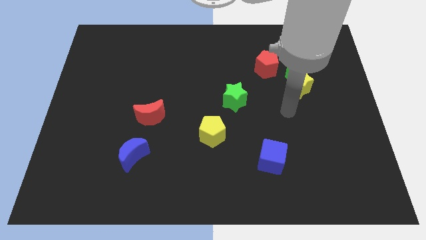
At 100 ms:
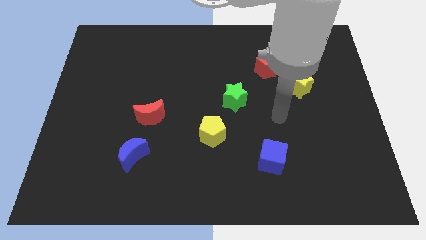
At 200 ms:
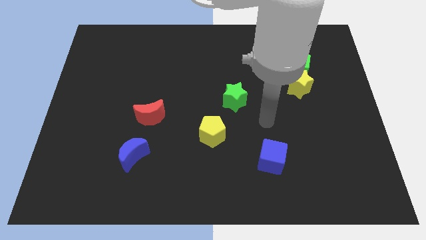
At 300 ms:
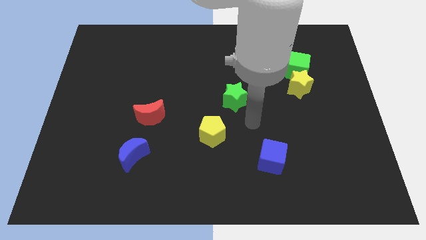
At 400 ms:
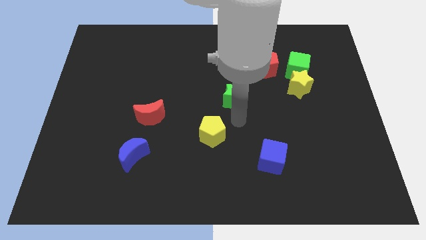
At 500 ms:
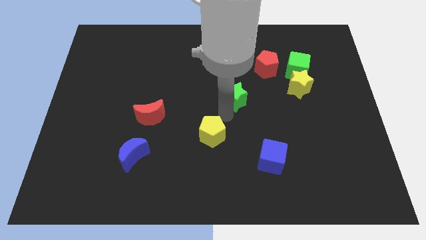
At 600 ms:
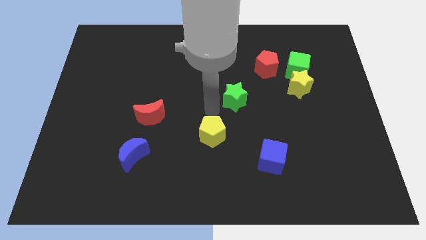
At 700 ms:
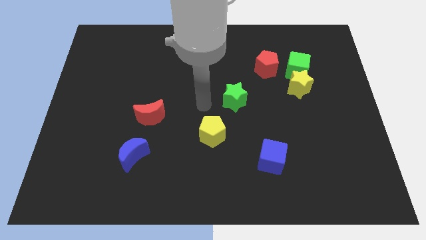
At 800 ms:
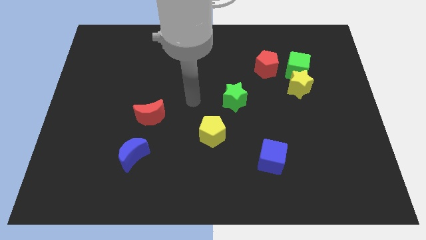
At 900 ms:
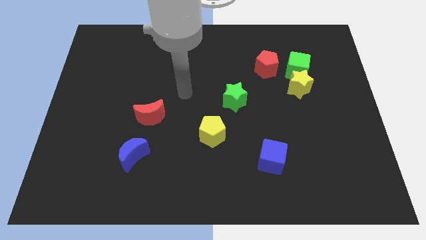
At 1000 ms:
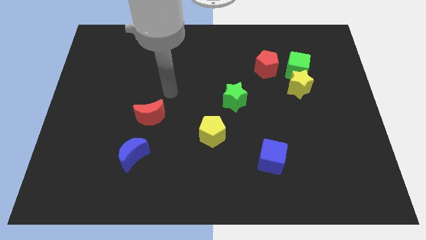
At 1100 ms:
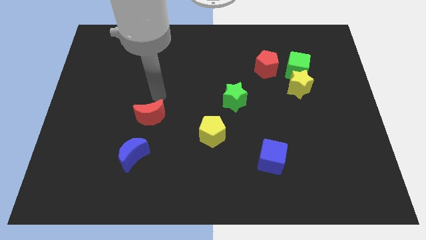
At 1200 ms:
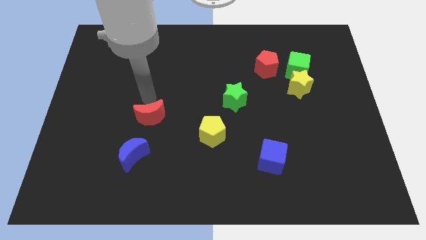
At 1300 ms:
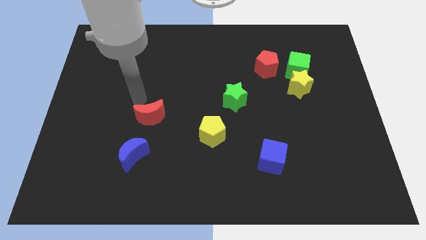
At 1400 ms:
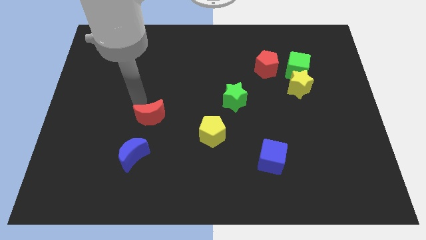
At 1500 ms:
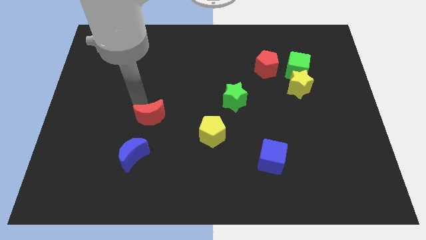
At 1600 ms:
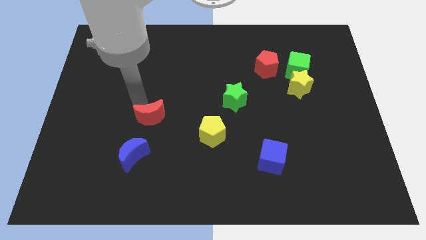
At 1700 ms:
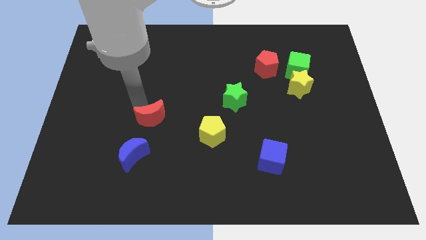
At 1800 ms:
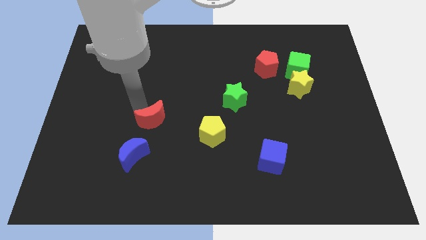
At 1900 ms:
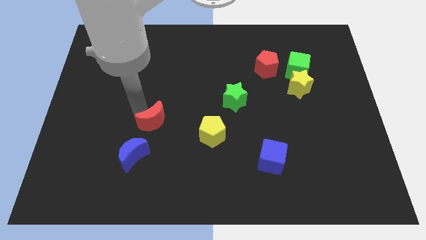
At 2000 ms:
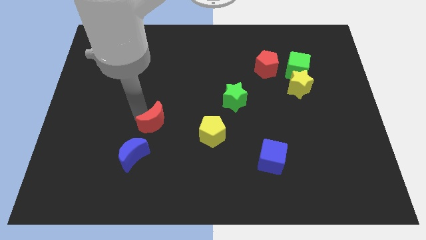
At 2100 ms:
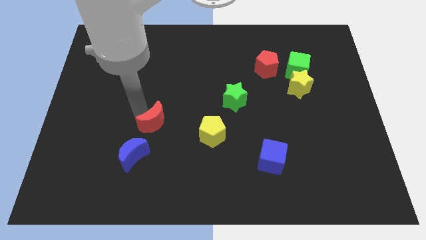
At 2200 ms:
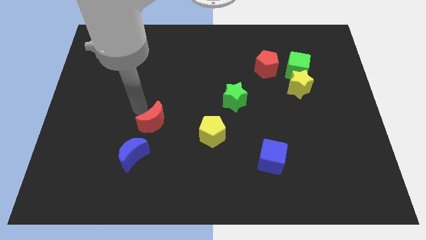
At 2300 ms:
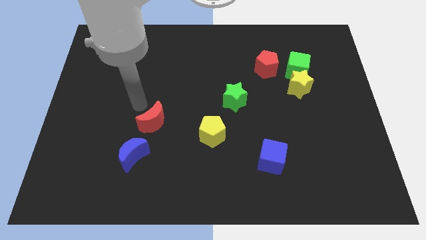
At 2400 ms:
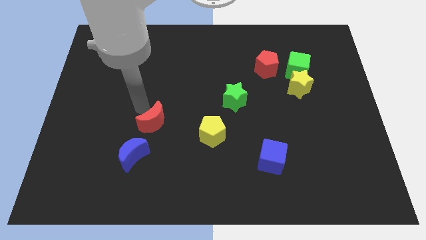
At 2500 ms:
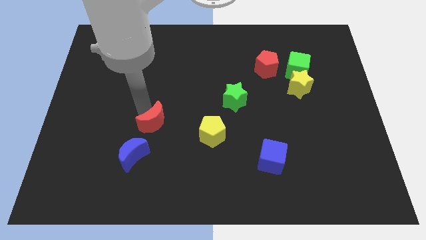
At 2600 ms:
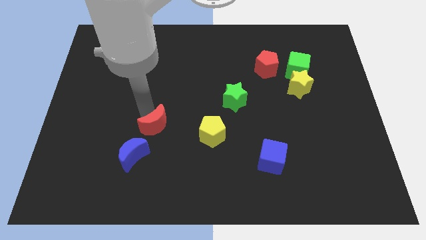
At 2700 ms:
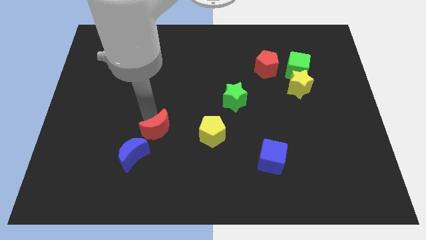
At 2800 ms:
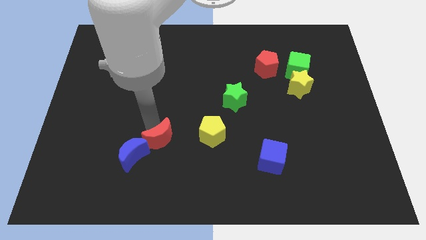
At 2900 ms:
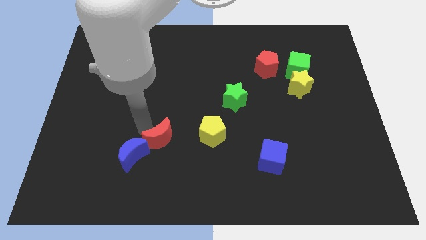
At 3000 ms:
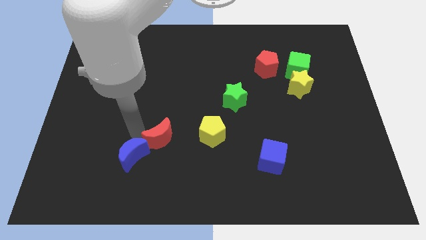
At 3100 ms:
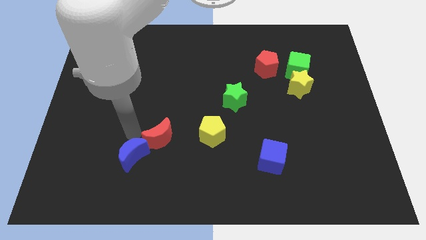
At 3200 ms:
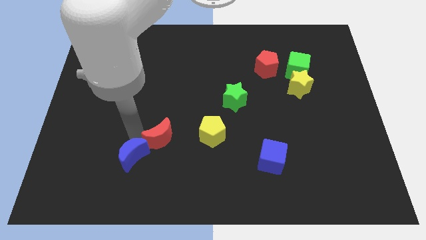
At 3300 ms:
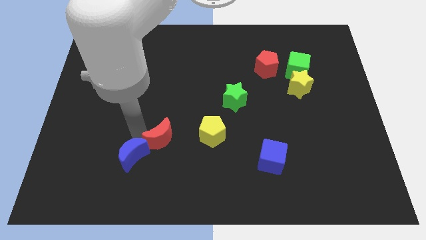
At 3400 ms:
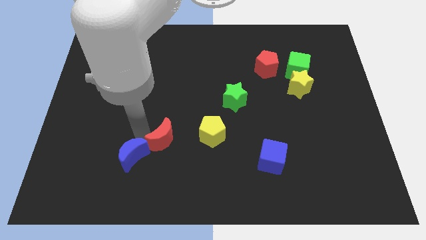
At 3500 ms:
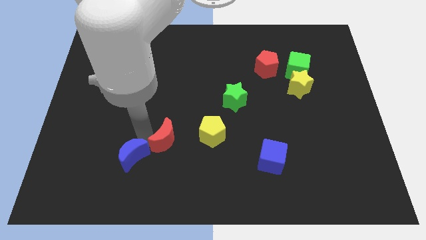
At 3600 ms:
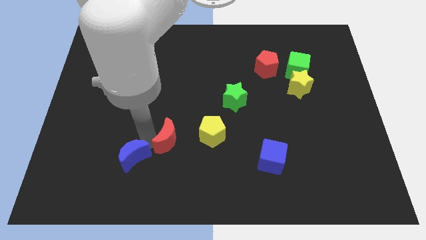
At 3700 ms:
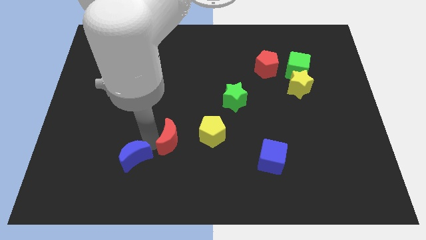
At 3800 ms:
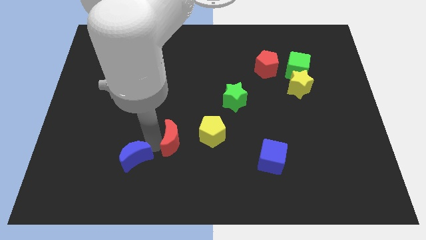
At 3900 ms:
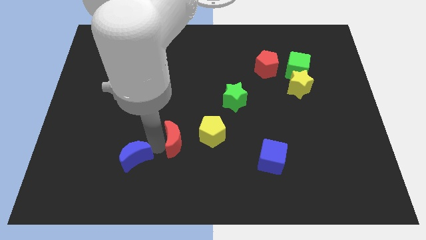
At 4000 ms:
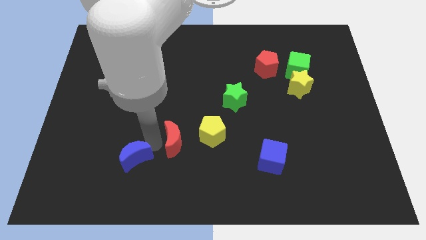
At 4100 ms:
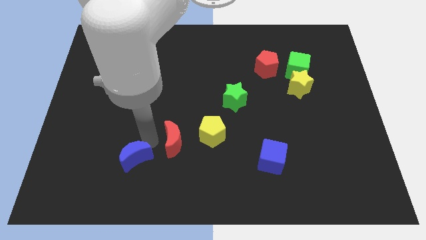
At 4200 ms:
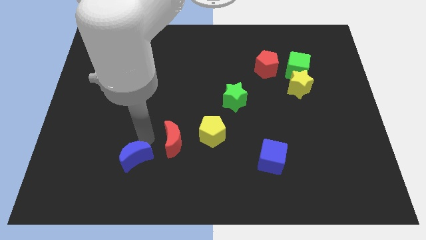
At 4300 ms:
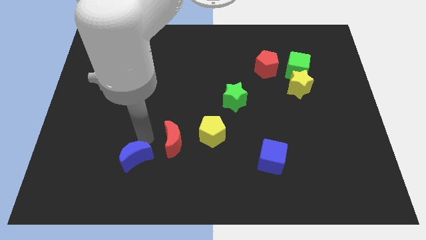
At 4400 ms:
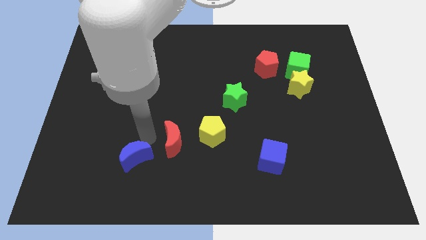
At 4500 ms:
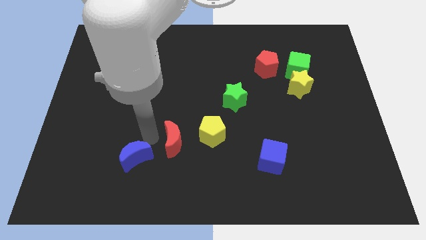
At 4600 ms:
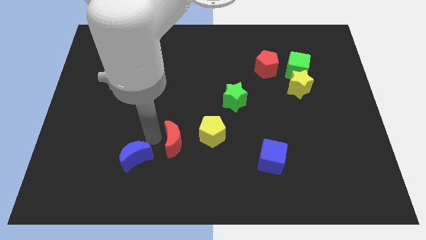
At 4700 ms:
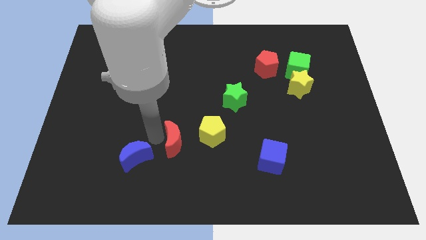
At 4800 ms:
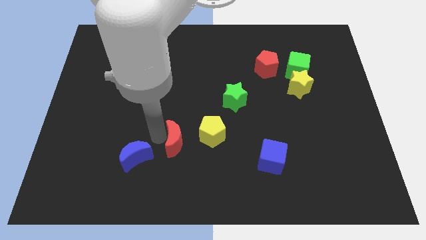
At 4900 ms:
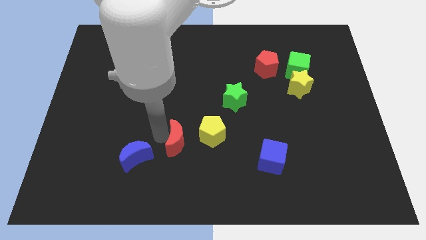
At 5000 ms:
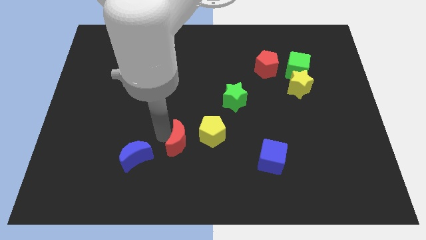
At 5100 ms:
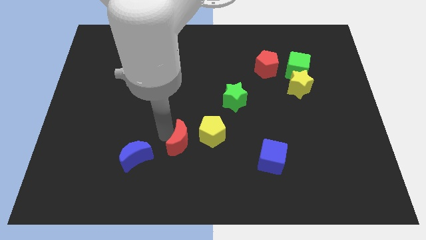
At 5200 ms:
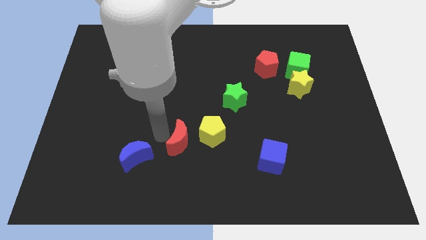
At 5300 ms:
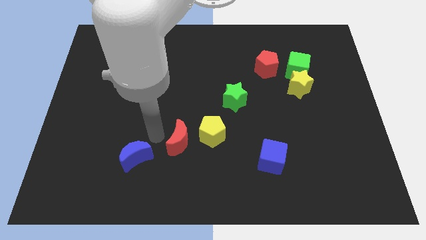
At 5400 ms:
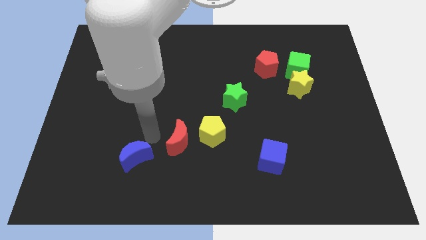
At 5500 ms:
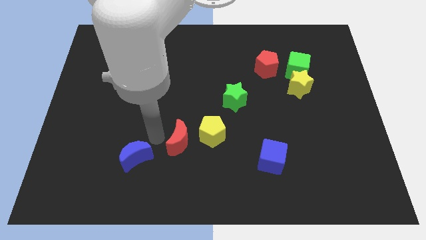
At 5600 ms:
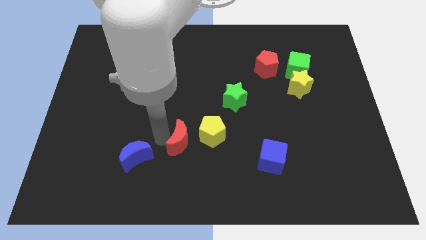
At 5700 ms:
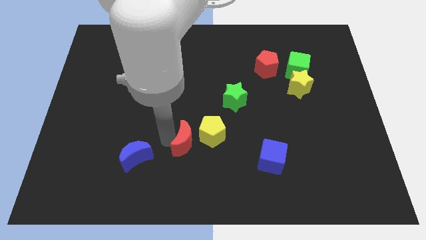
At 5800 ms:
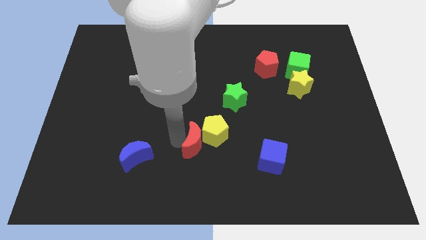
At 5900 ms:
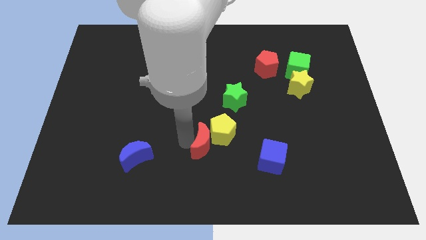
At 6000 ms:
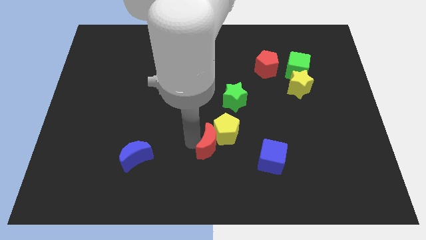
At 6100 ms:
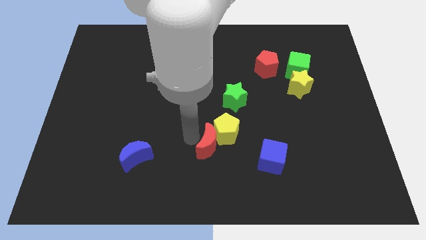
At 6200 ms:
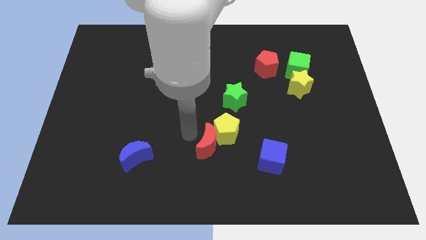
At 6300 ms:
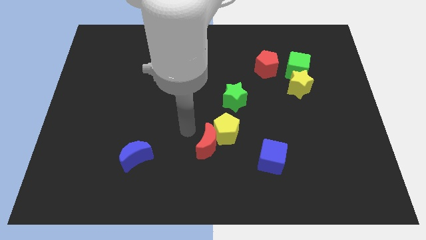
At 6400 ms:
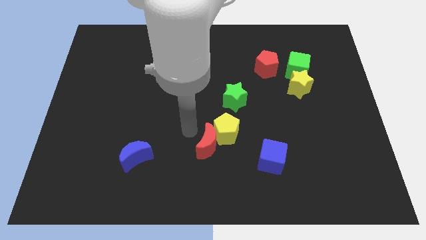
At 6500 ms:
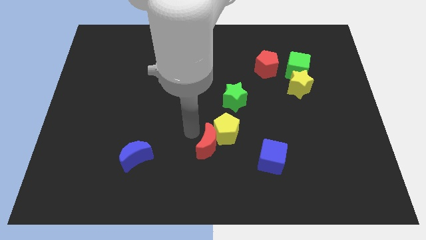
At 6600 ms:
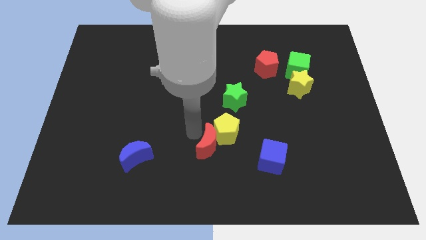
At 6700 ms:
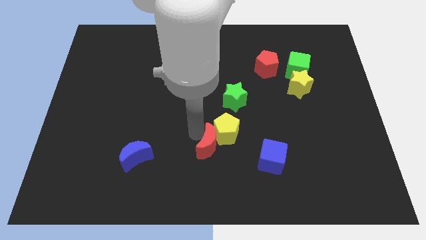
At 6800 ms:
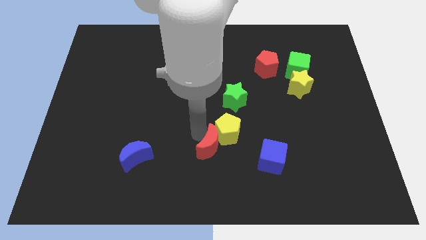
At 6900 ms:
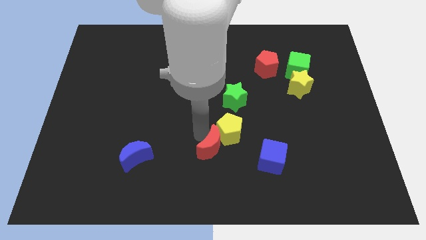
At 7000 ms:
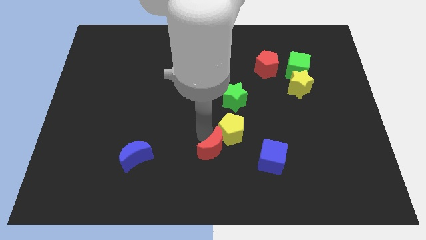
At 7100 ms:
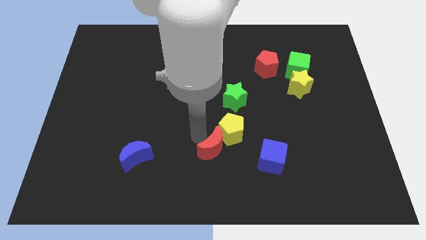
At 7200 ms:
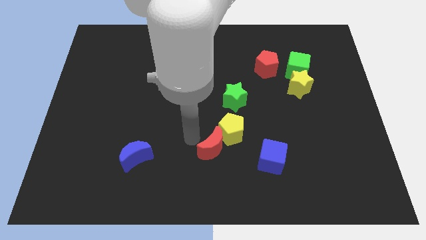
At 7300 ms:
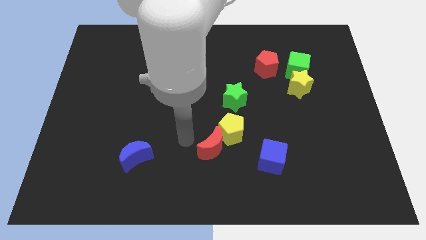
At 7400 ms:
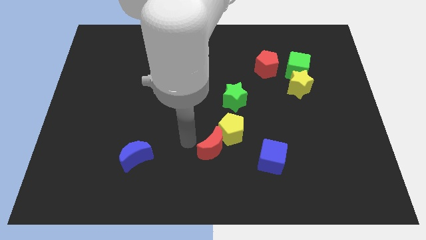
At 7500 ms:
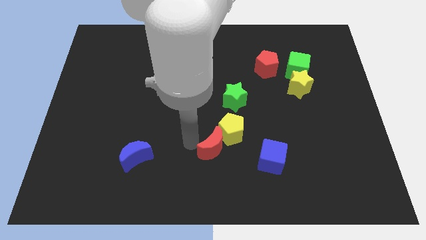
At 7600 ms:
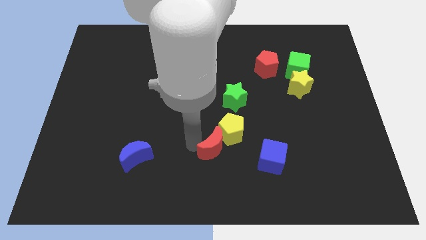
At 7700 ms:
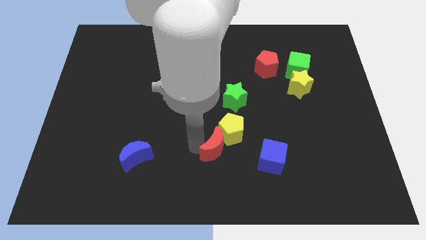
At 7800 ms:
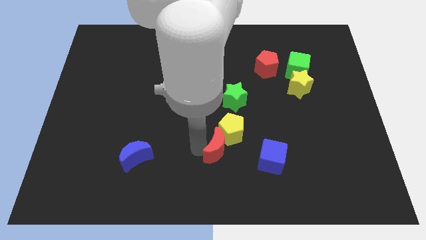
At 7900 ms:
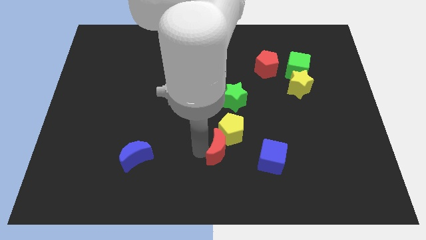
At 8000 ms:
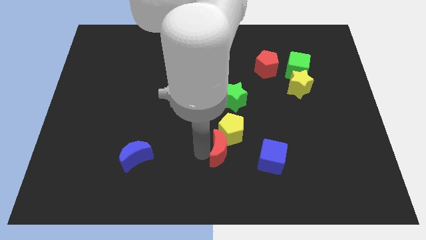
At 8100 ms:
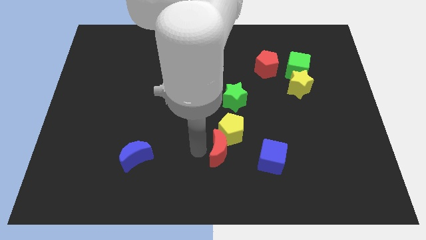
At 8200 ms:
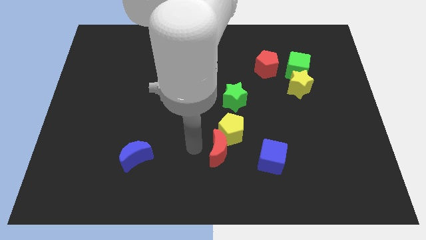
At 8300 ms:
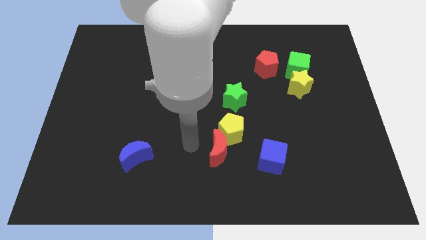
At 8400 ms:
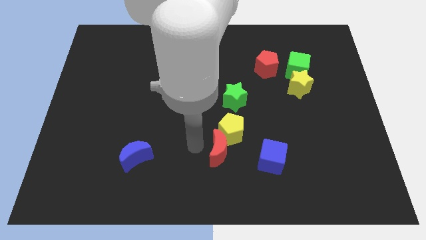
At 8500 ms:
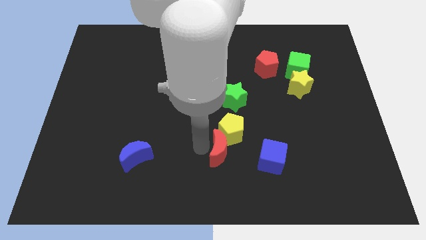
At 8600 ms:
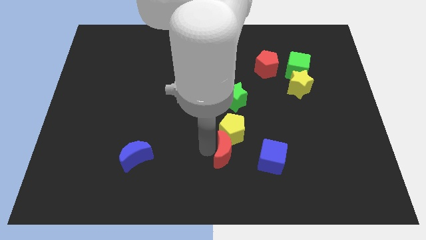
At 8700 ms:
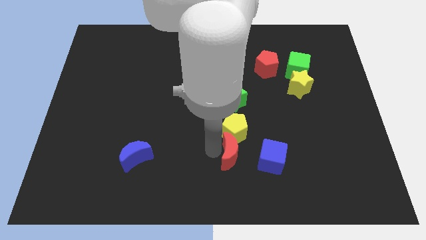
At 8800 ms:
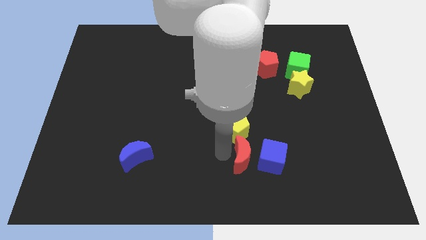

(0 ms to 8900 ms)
put the red moon to the blue cube
